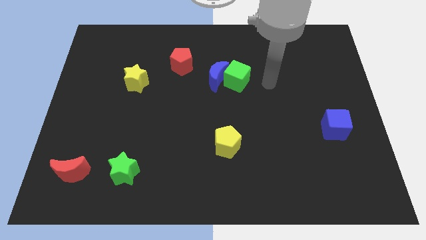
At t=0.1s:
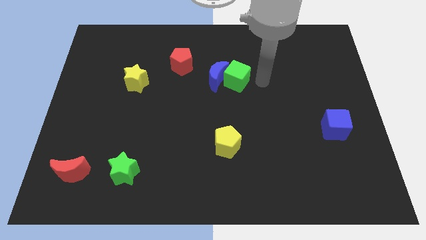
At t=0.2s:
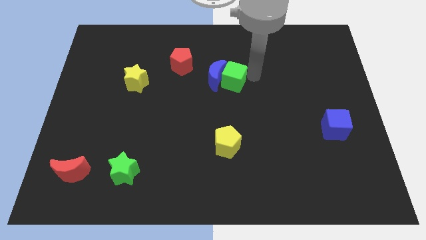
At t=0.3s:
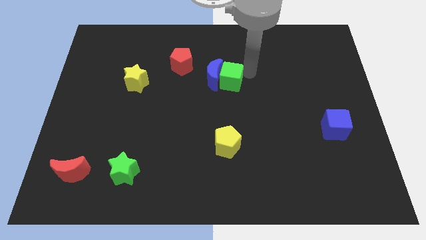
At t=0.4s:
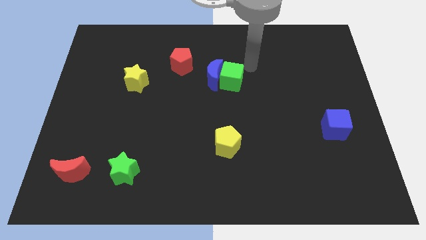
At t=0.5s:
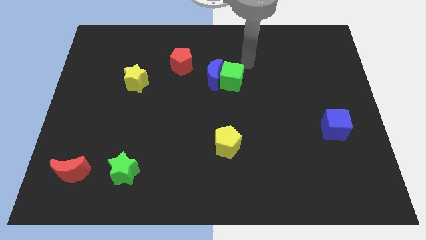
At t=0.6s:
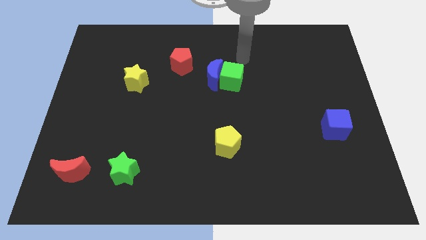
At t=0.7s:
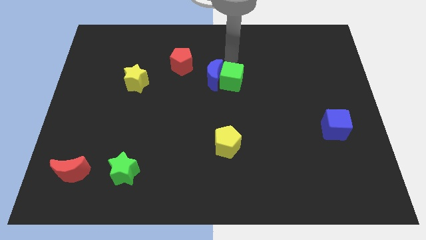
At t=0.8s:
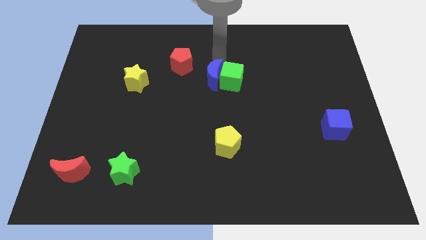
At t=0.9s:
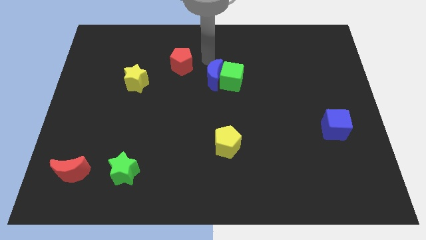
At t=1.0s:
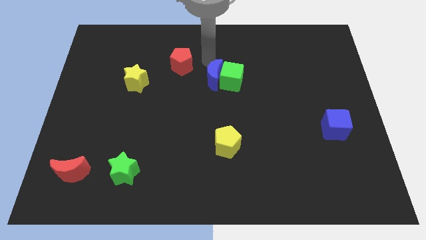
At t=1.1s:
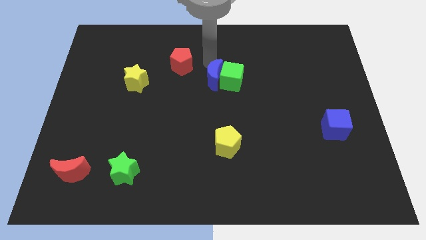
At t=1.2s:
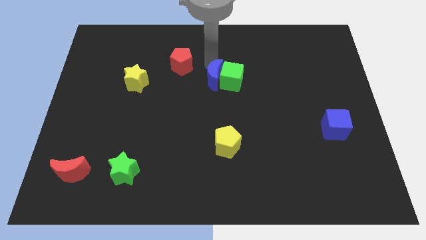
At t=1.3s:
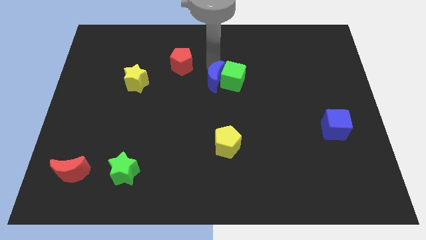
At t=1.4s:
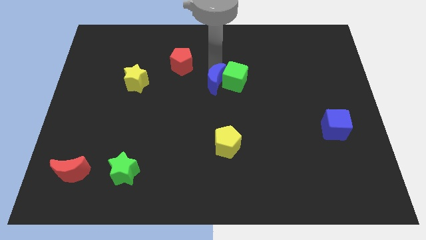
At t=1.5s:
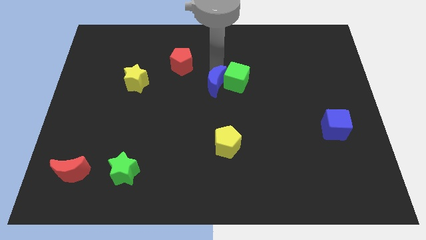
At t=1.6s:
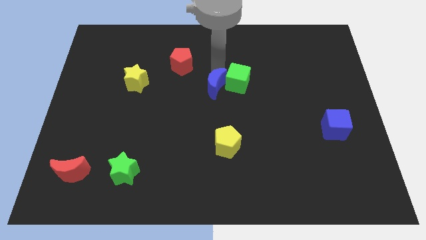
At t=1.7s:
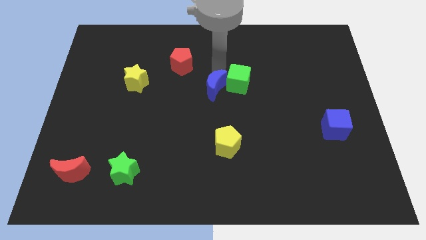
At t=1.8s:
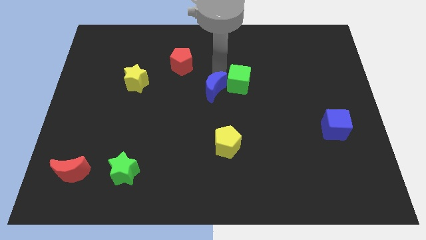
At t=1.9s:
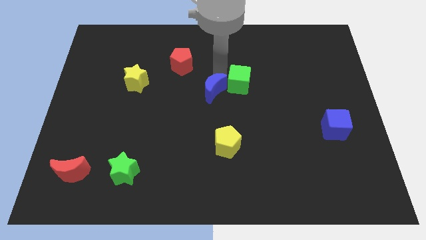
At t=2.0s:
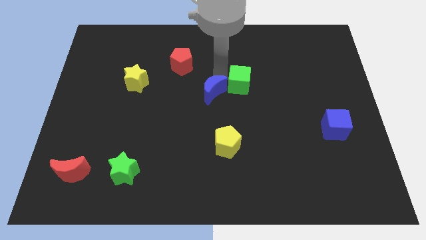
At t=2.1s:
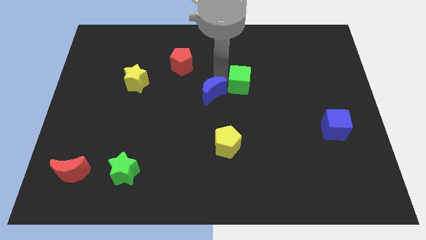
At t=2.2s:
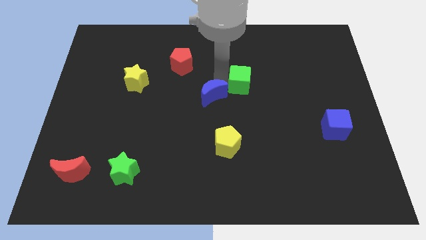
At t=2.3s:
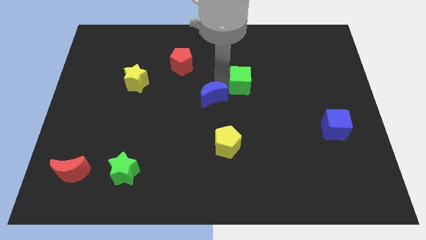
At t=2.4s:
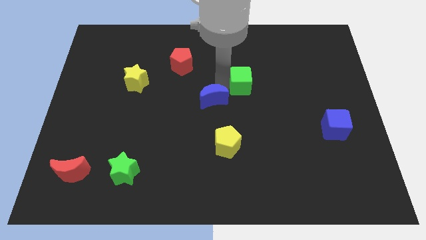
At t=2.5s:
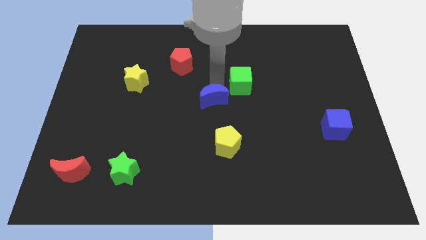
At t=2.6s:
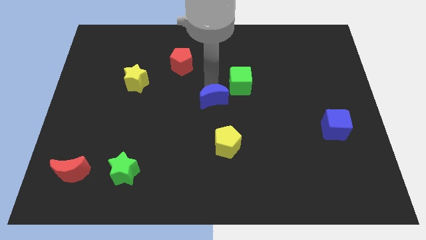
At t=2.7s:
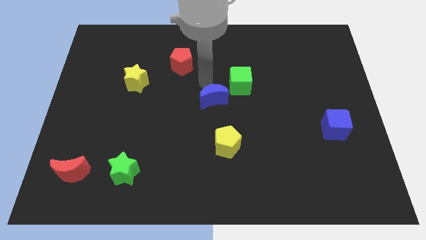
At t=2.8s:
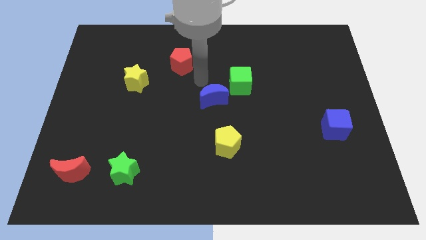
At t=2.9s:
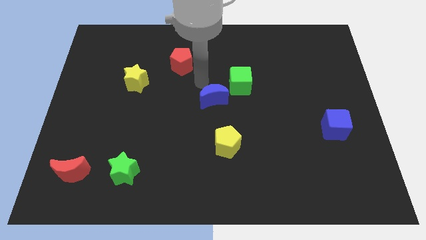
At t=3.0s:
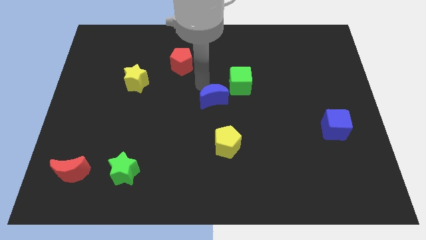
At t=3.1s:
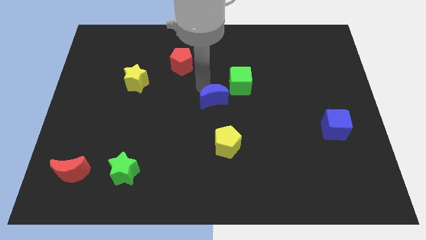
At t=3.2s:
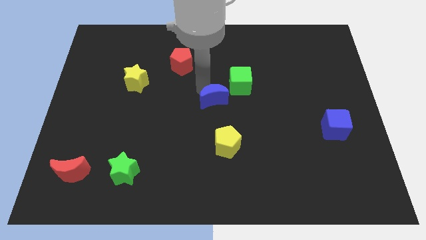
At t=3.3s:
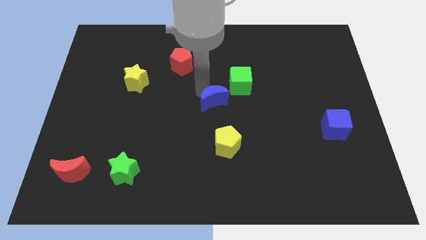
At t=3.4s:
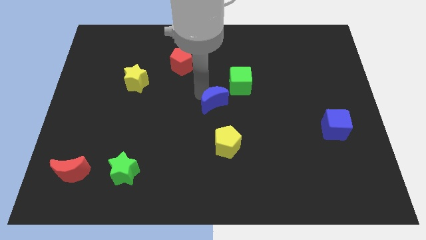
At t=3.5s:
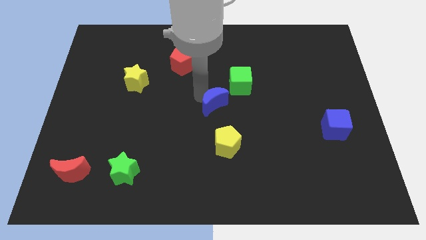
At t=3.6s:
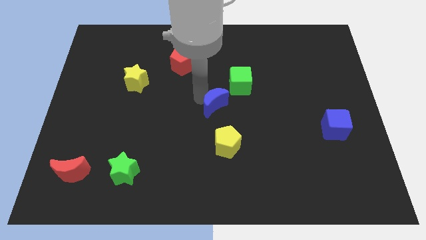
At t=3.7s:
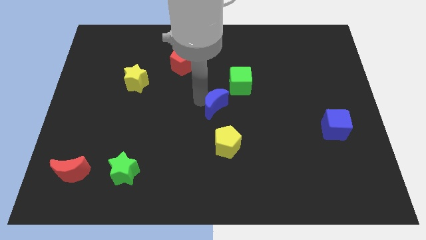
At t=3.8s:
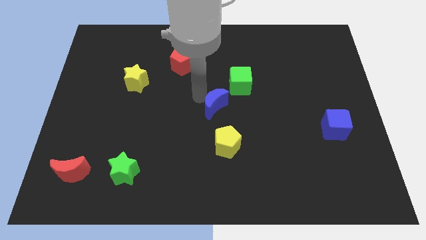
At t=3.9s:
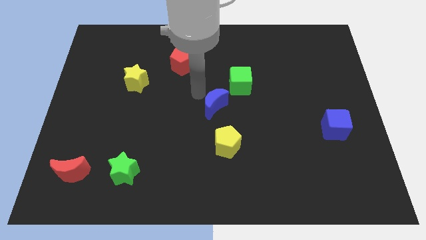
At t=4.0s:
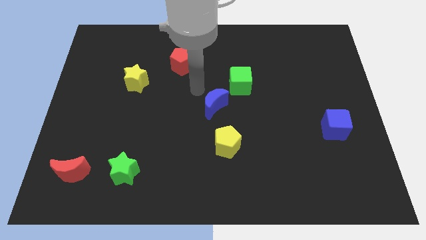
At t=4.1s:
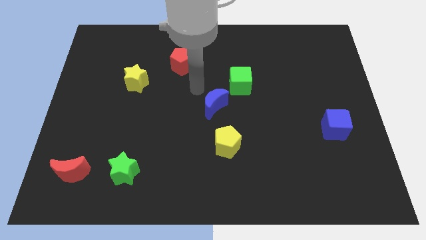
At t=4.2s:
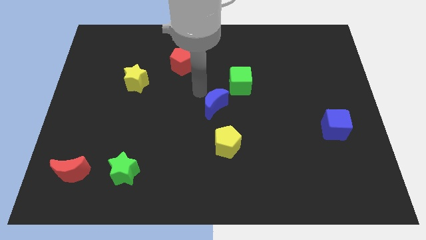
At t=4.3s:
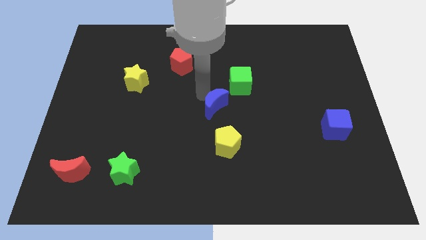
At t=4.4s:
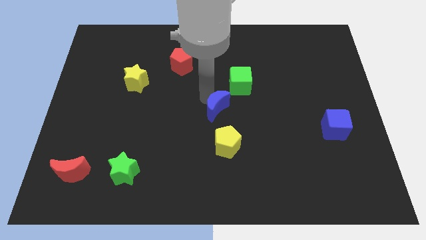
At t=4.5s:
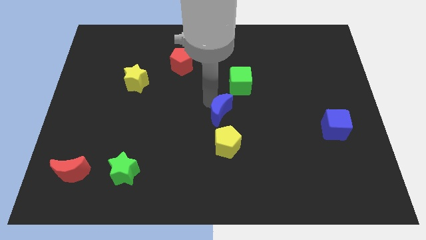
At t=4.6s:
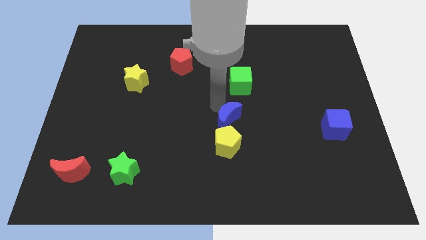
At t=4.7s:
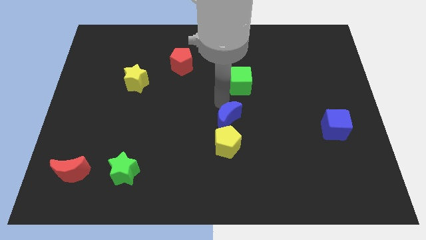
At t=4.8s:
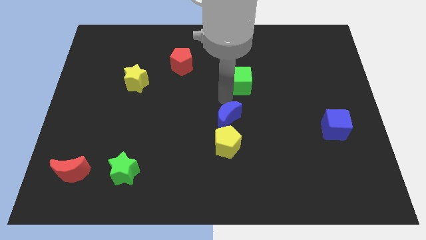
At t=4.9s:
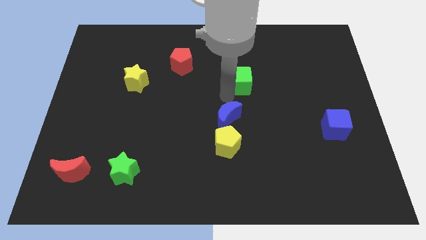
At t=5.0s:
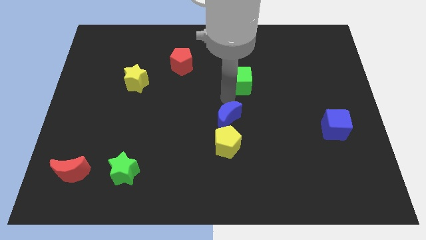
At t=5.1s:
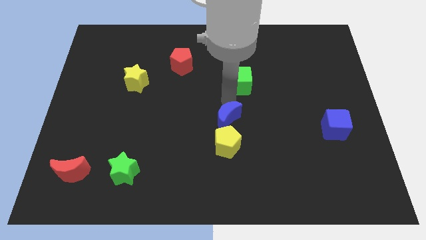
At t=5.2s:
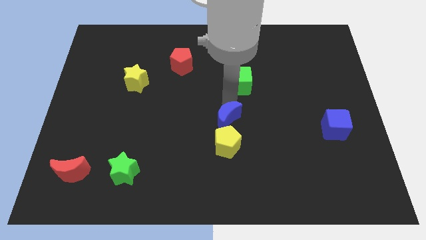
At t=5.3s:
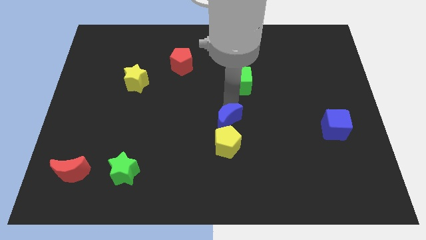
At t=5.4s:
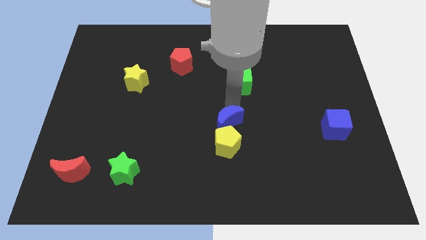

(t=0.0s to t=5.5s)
slide the blue moon next to the yellow pentagon

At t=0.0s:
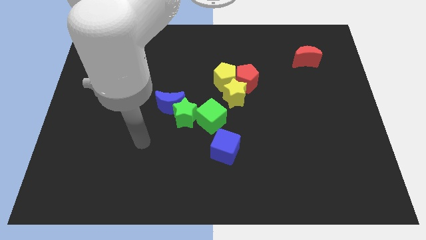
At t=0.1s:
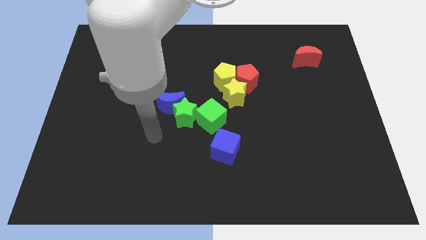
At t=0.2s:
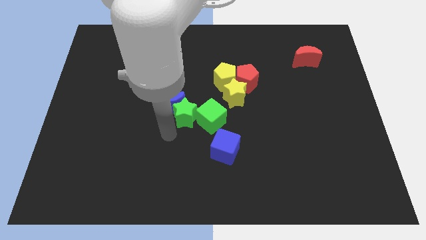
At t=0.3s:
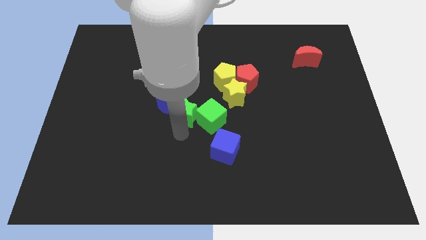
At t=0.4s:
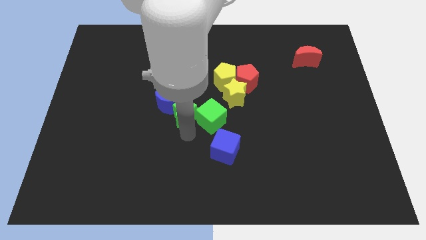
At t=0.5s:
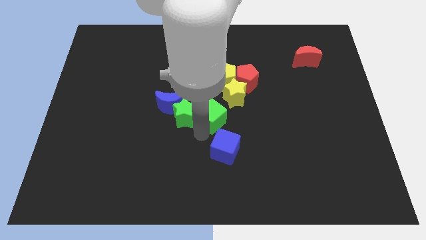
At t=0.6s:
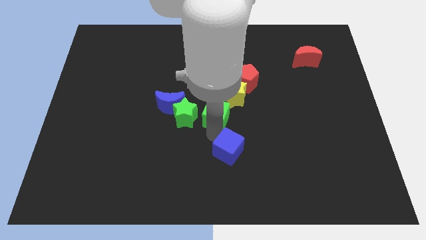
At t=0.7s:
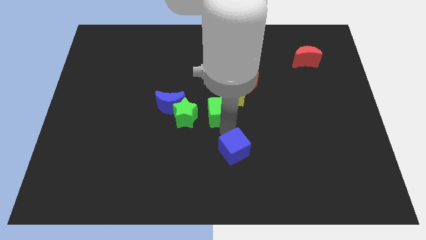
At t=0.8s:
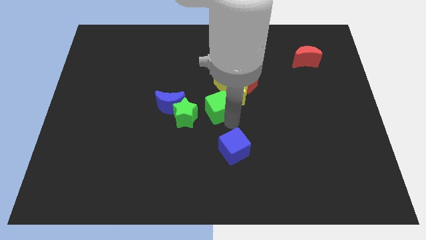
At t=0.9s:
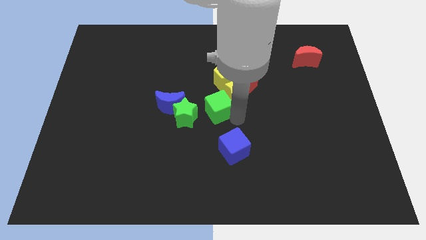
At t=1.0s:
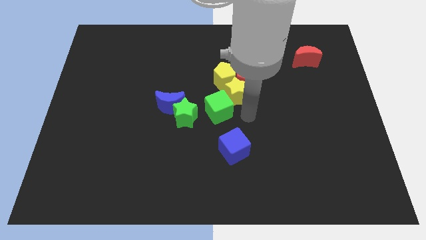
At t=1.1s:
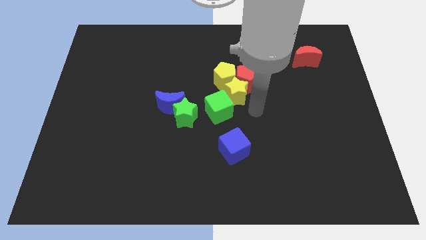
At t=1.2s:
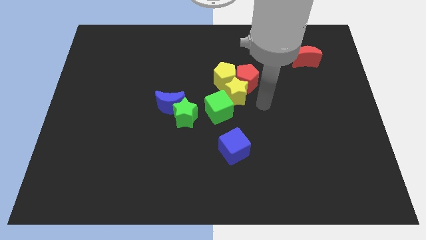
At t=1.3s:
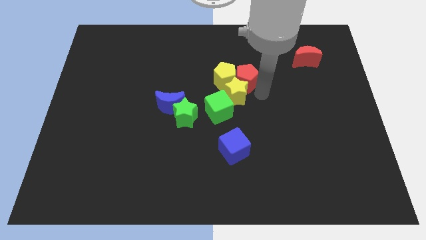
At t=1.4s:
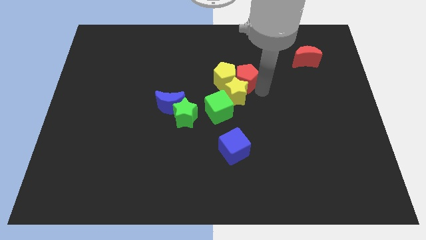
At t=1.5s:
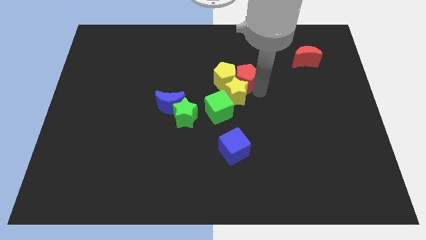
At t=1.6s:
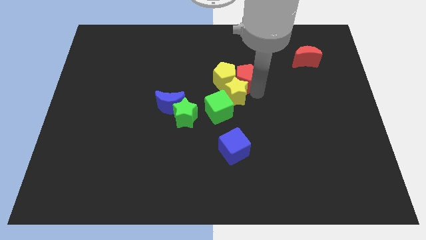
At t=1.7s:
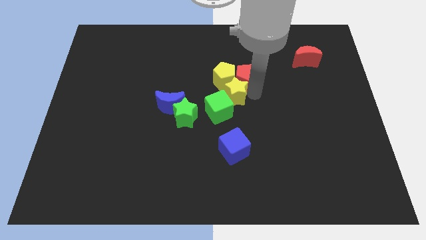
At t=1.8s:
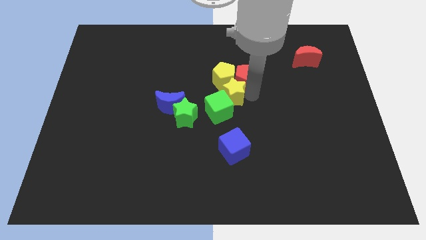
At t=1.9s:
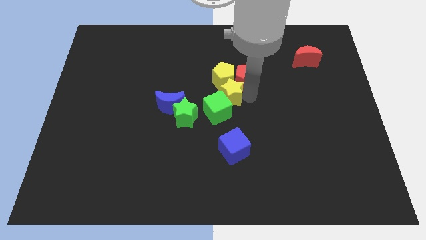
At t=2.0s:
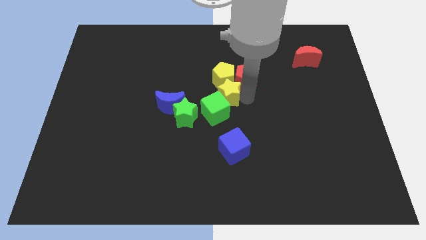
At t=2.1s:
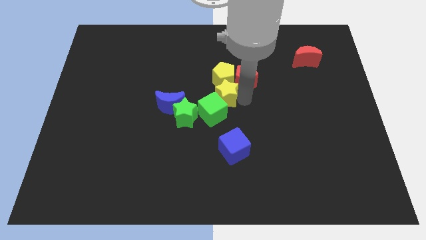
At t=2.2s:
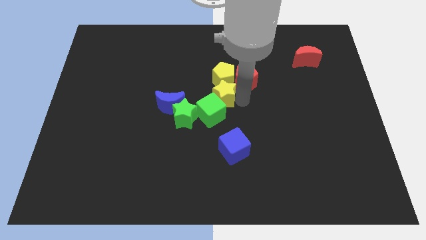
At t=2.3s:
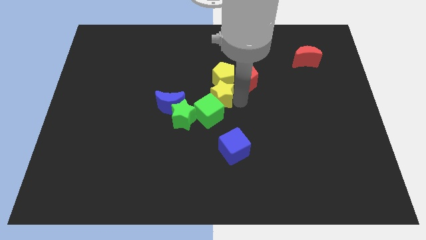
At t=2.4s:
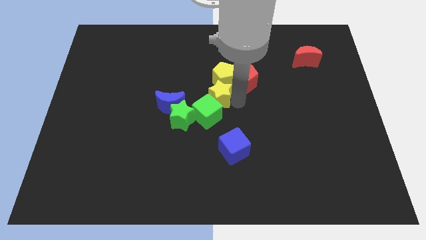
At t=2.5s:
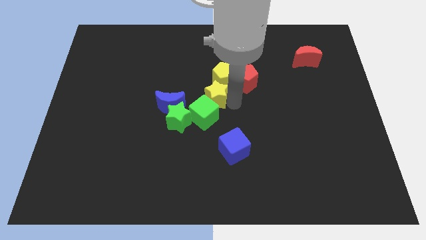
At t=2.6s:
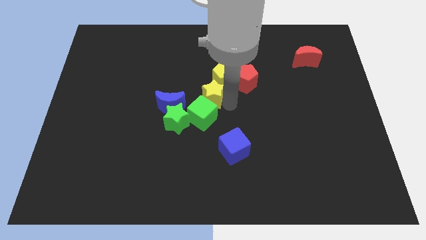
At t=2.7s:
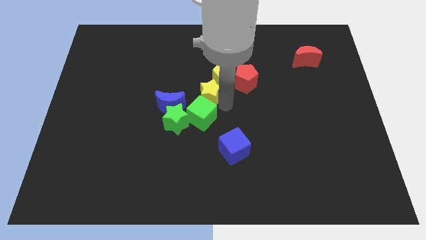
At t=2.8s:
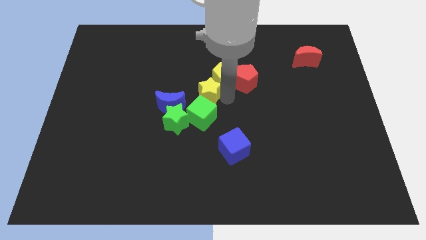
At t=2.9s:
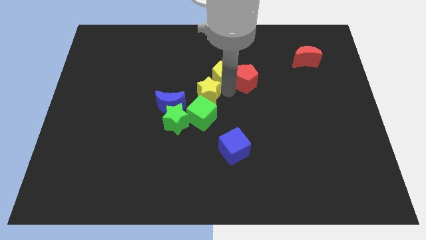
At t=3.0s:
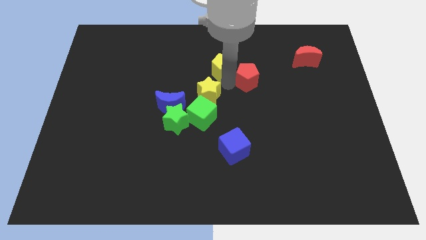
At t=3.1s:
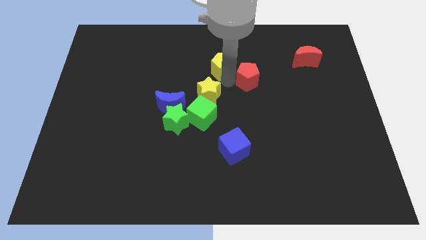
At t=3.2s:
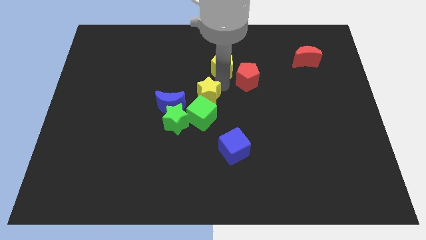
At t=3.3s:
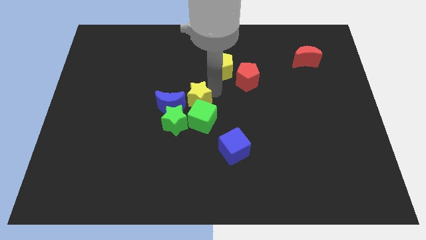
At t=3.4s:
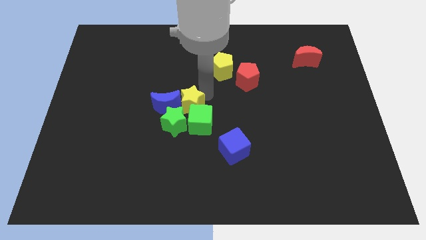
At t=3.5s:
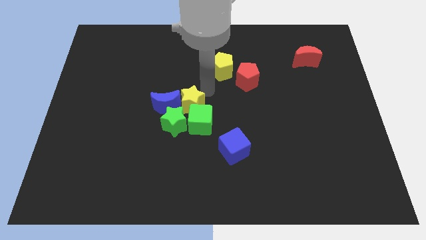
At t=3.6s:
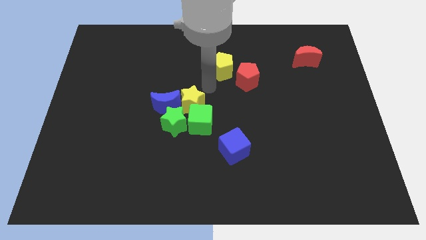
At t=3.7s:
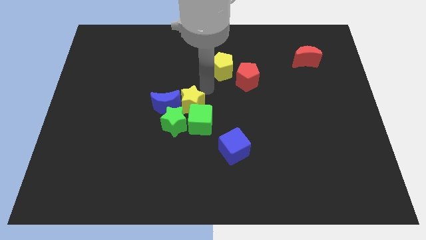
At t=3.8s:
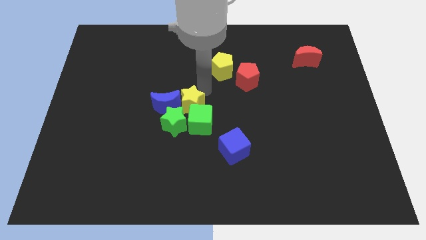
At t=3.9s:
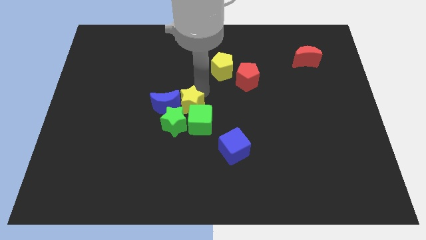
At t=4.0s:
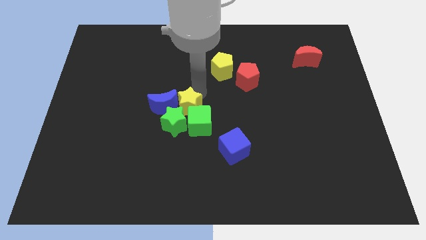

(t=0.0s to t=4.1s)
push the yellow star next to the green star
